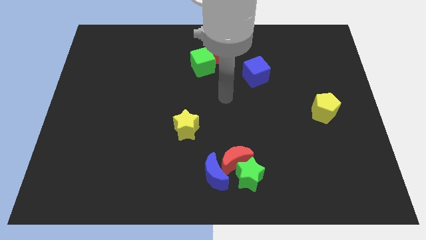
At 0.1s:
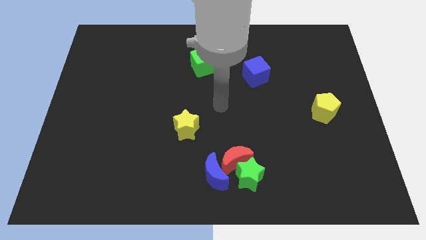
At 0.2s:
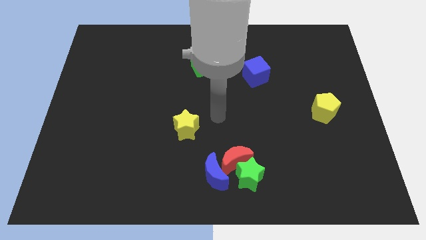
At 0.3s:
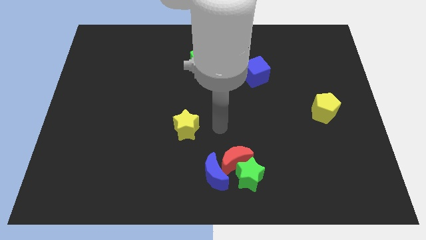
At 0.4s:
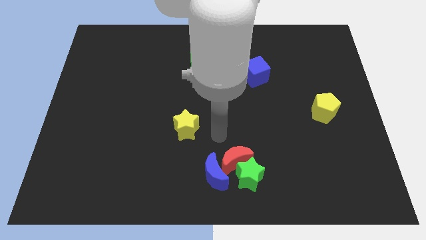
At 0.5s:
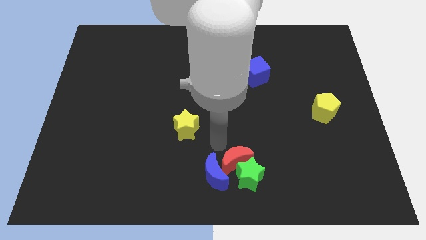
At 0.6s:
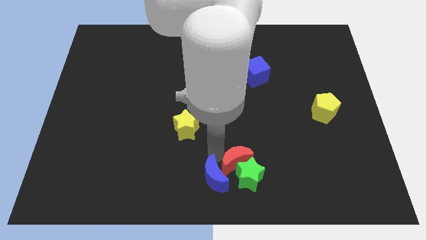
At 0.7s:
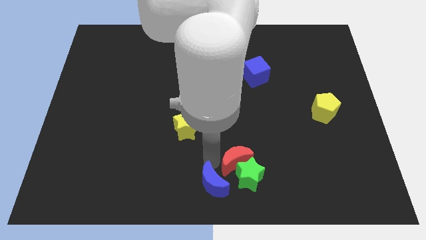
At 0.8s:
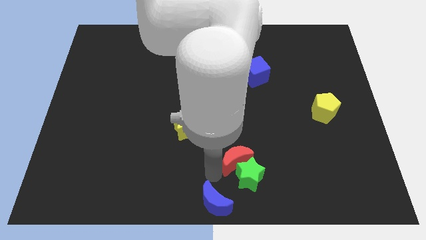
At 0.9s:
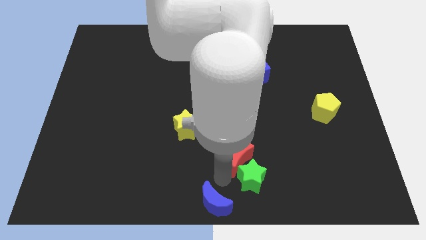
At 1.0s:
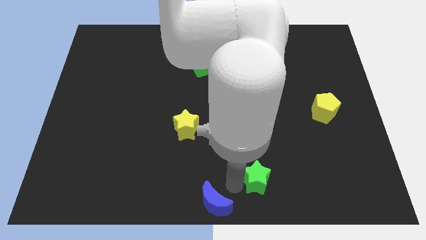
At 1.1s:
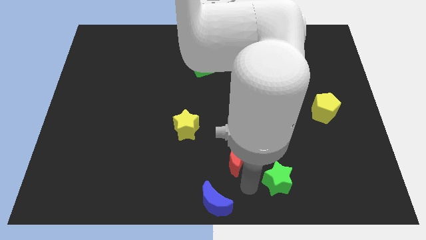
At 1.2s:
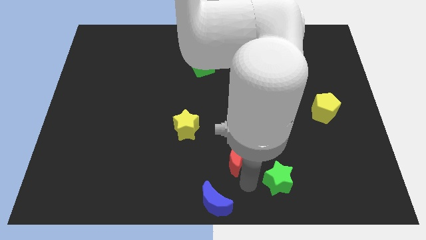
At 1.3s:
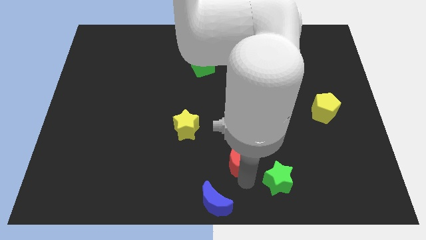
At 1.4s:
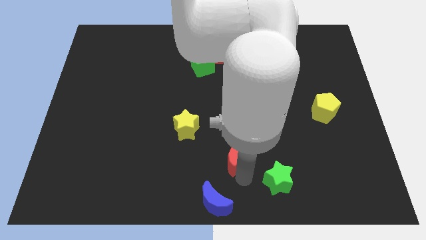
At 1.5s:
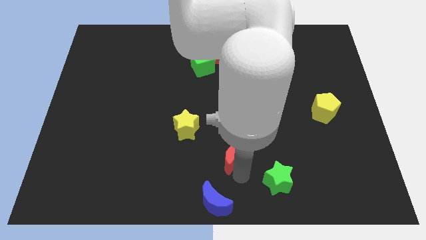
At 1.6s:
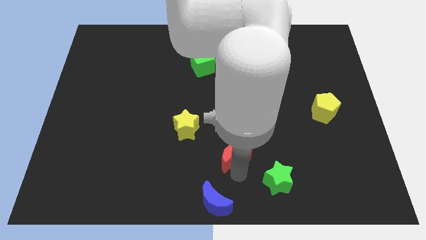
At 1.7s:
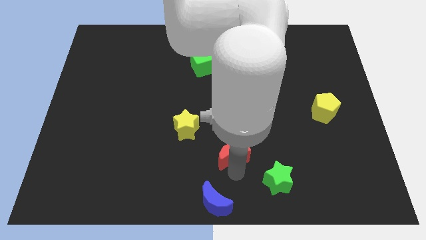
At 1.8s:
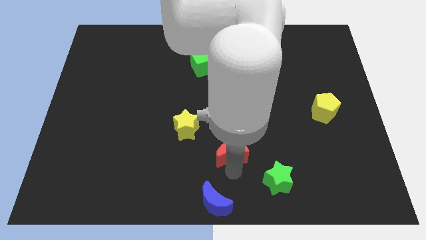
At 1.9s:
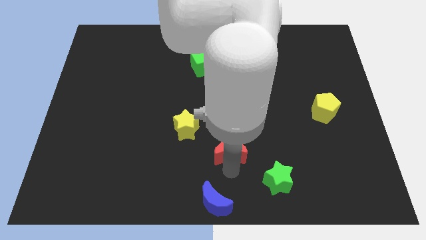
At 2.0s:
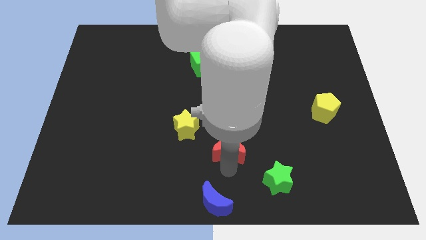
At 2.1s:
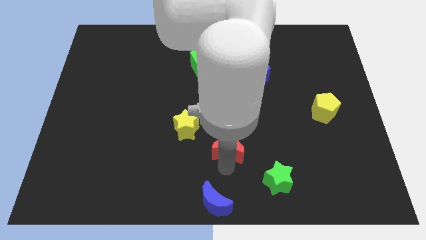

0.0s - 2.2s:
move the red moon away from the green star and blue moon

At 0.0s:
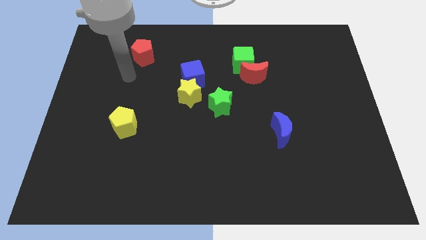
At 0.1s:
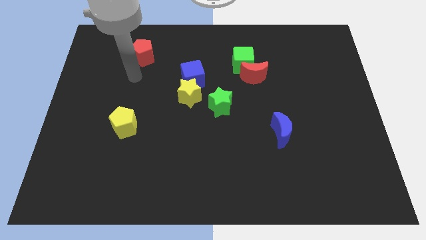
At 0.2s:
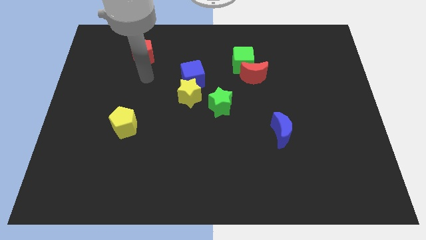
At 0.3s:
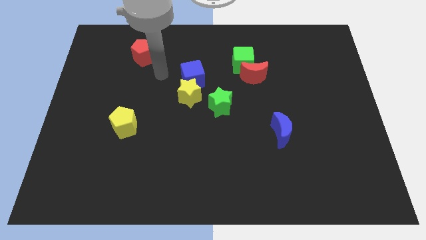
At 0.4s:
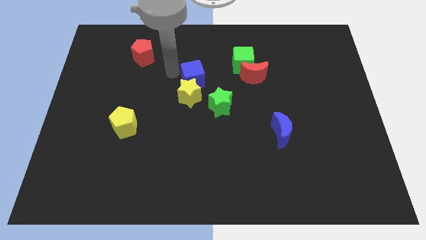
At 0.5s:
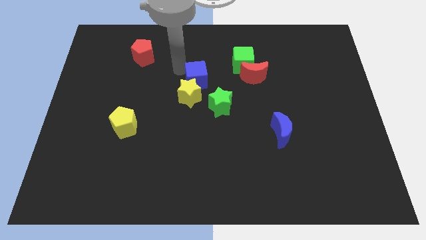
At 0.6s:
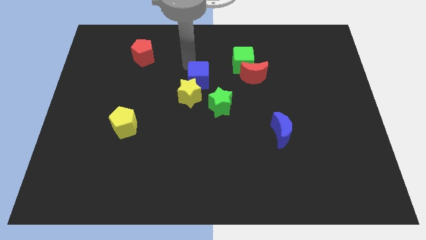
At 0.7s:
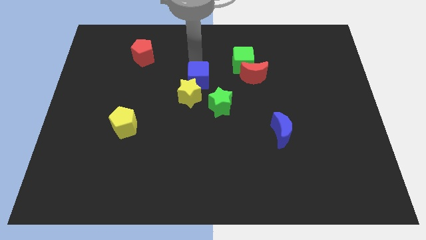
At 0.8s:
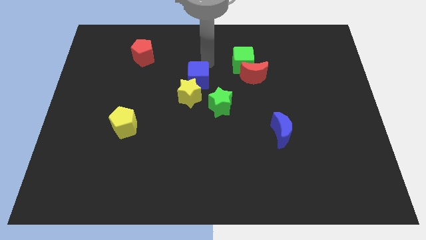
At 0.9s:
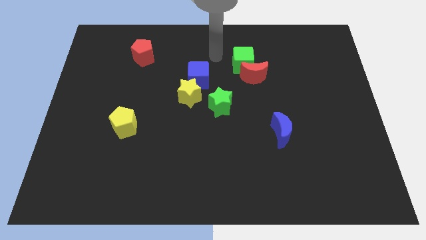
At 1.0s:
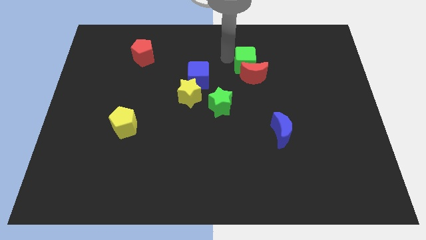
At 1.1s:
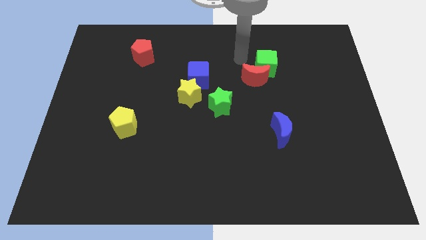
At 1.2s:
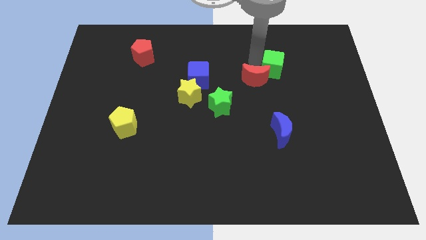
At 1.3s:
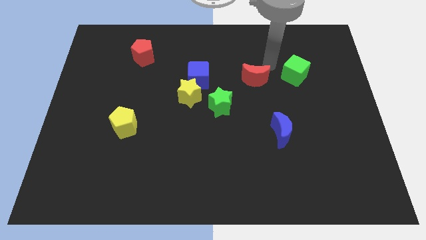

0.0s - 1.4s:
move the red moon away from the green cube

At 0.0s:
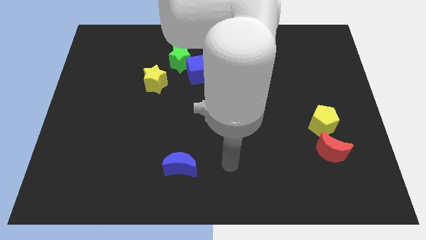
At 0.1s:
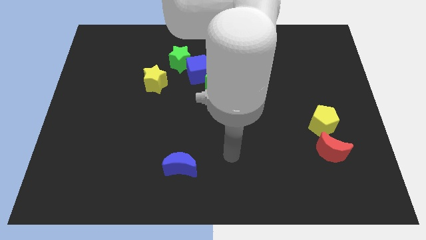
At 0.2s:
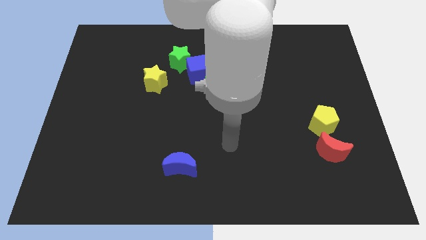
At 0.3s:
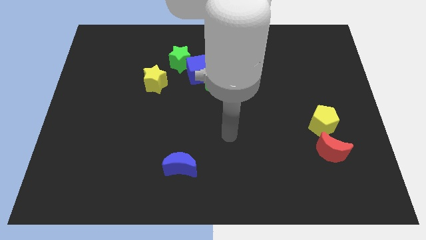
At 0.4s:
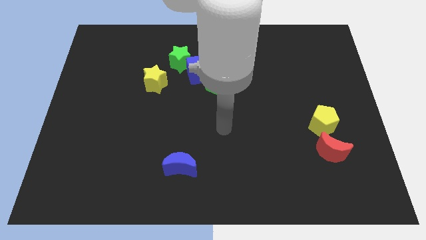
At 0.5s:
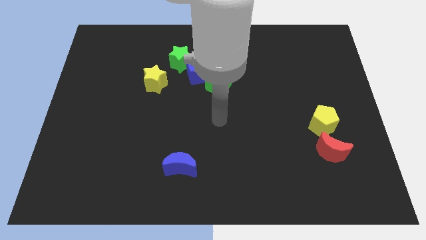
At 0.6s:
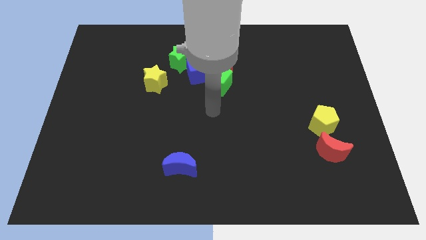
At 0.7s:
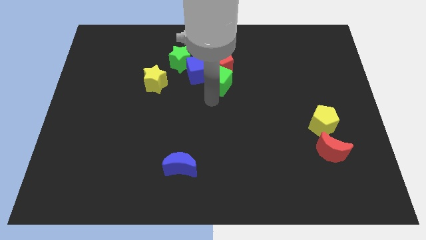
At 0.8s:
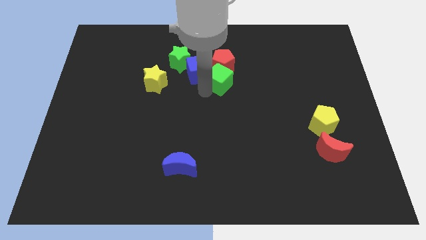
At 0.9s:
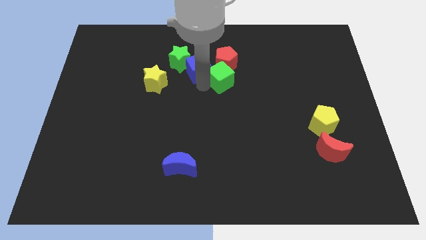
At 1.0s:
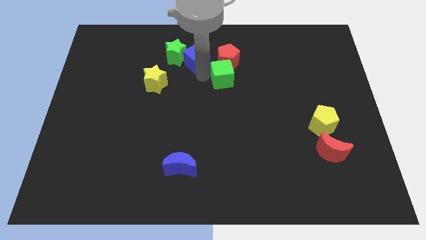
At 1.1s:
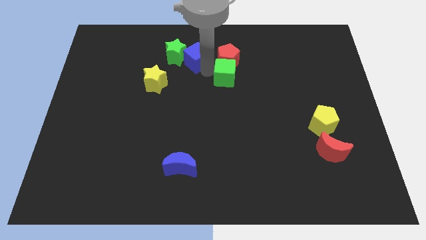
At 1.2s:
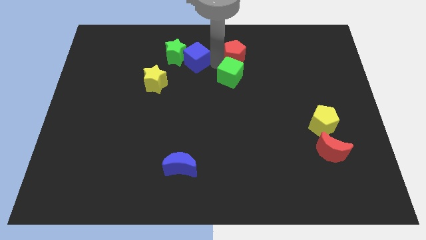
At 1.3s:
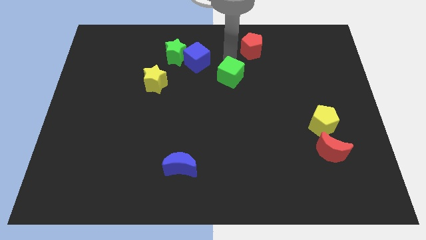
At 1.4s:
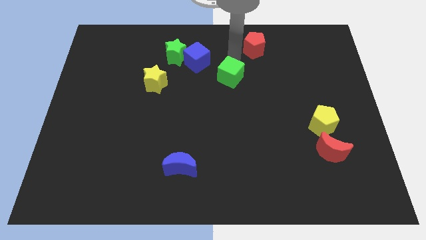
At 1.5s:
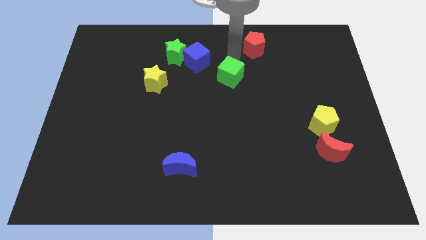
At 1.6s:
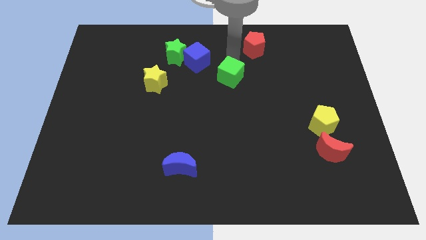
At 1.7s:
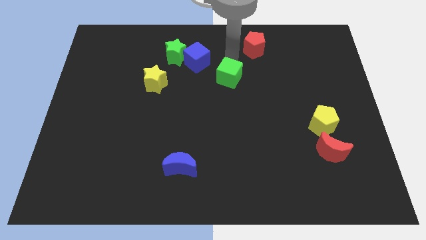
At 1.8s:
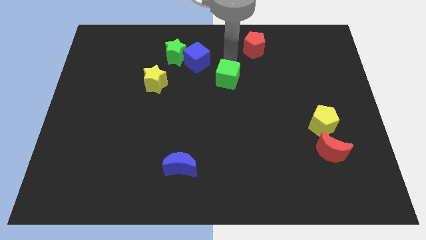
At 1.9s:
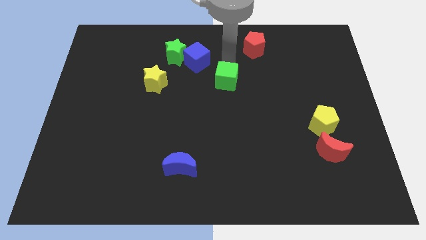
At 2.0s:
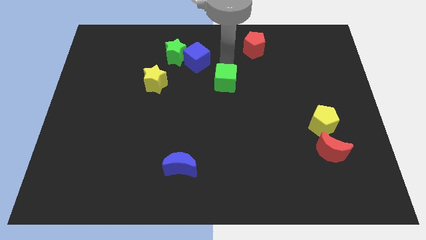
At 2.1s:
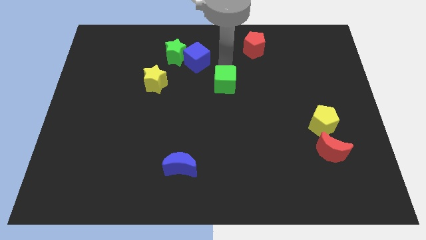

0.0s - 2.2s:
separate the green cube from the red pentagon and blue cube

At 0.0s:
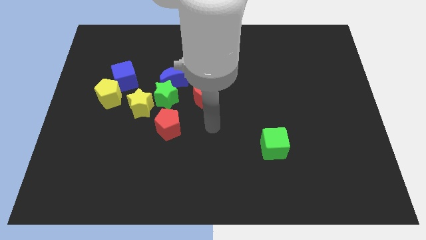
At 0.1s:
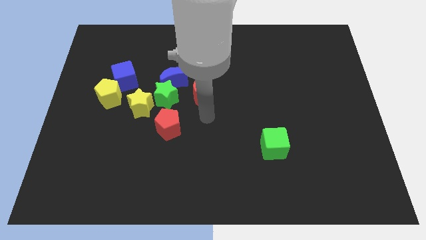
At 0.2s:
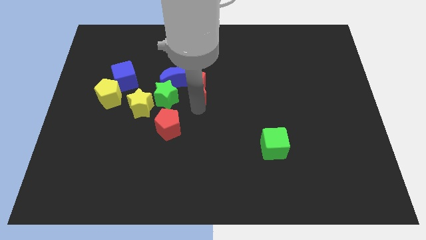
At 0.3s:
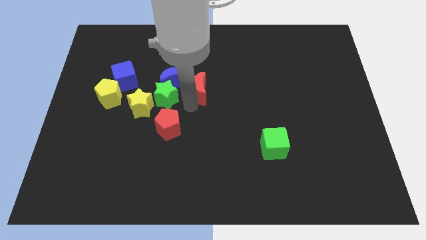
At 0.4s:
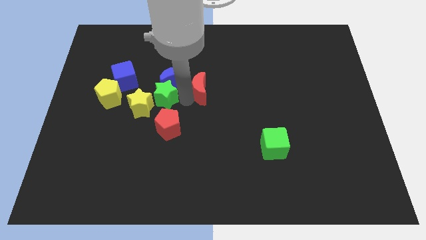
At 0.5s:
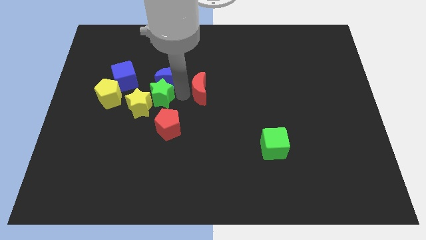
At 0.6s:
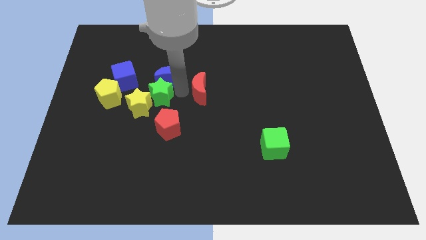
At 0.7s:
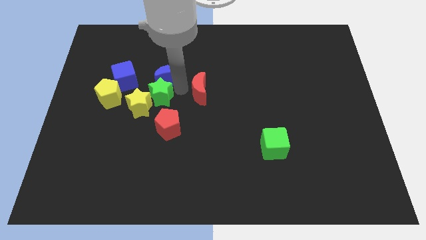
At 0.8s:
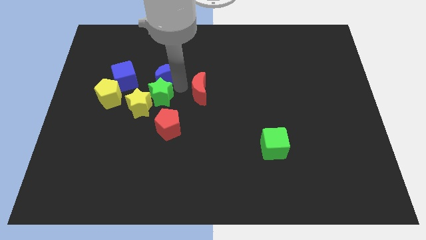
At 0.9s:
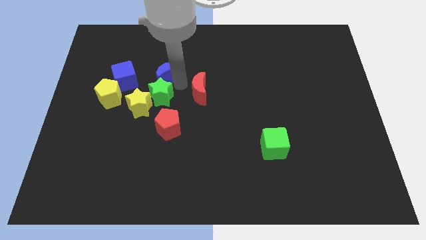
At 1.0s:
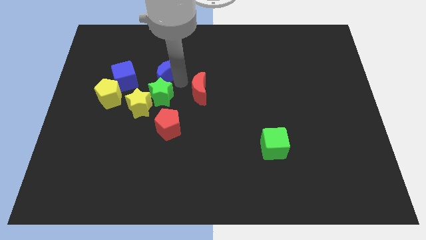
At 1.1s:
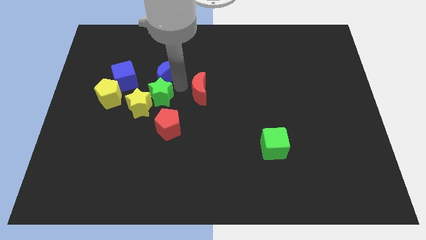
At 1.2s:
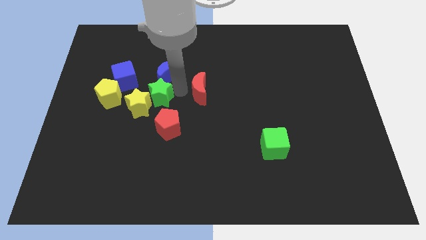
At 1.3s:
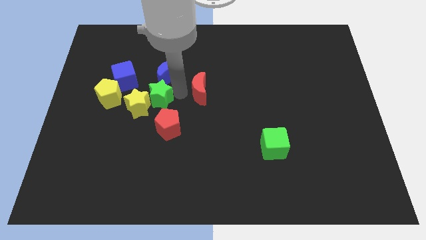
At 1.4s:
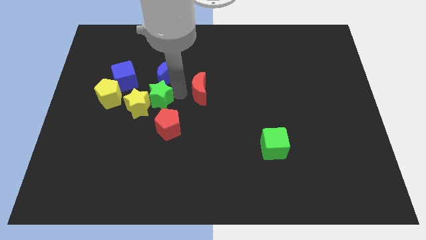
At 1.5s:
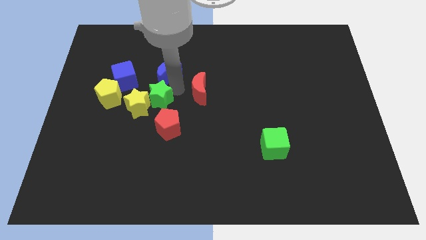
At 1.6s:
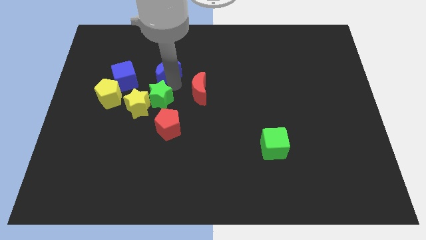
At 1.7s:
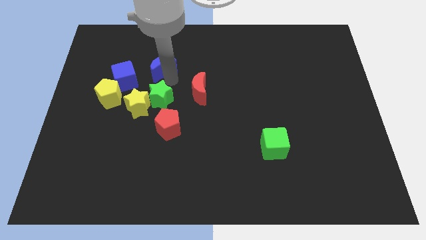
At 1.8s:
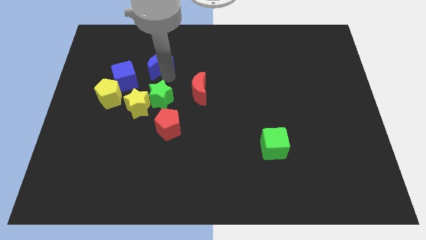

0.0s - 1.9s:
separate the blue moon from the green star and red moon

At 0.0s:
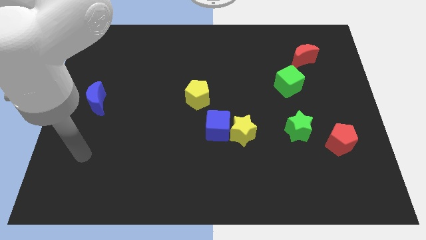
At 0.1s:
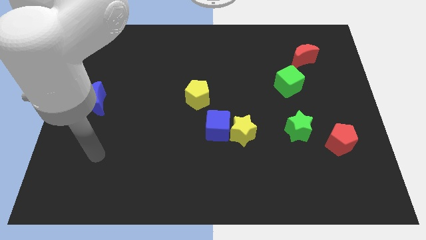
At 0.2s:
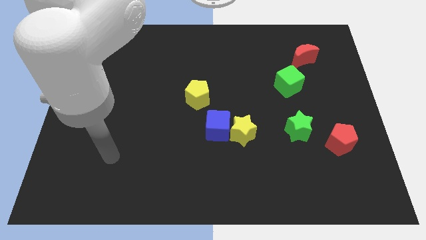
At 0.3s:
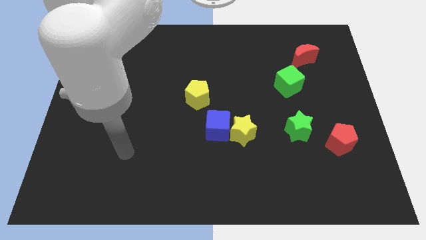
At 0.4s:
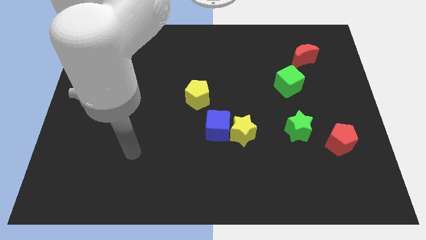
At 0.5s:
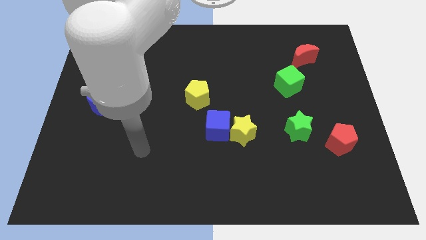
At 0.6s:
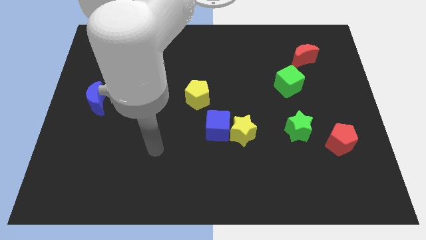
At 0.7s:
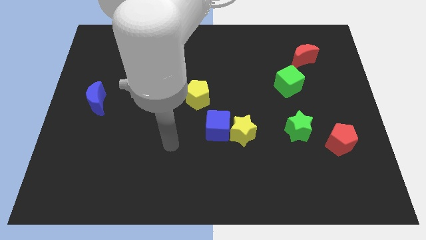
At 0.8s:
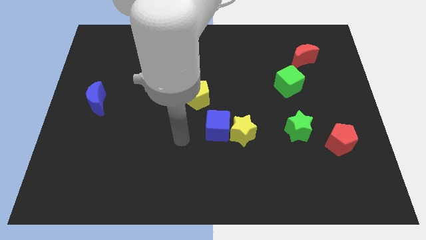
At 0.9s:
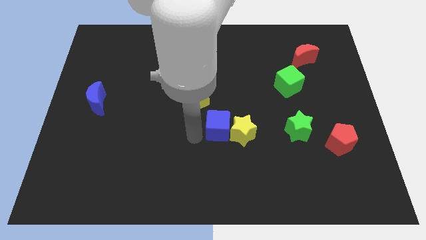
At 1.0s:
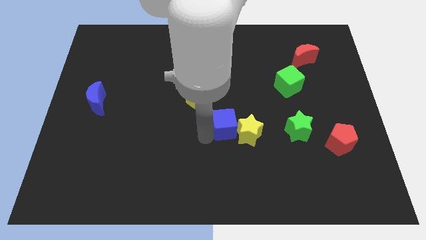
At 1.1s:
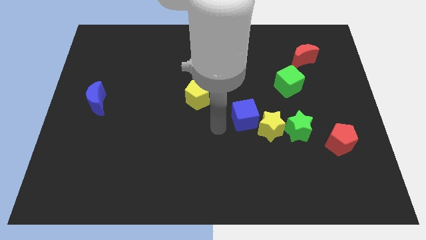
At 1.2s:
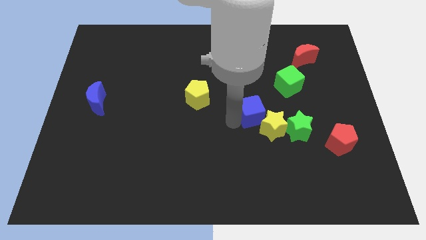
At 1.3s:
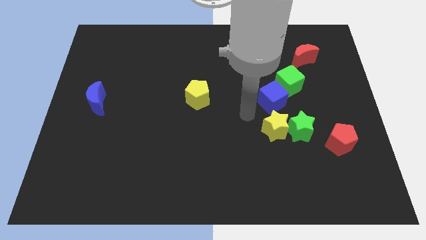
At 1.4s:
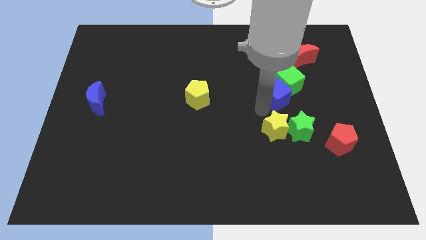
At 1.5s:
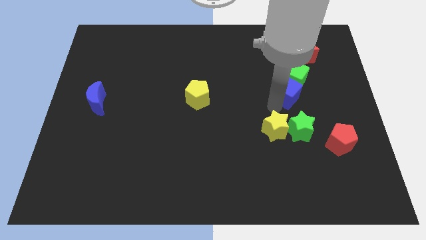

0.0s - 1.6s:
pull the yellow star apart from the blue cube

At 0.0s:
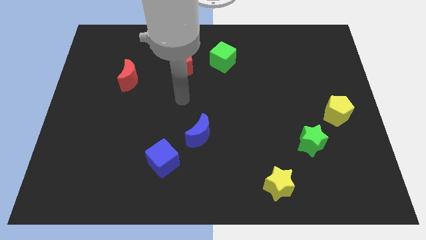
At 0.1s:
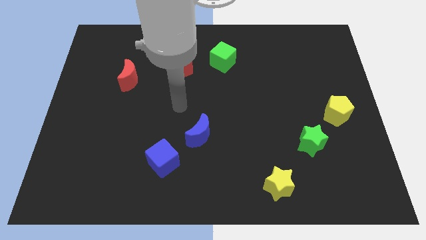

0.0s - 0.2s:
move the blue moon away from the blue cube
